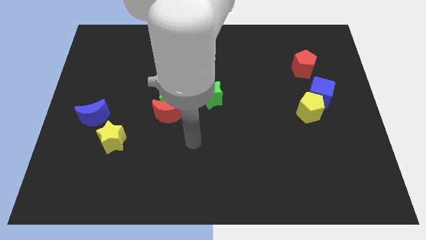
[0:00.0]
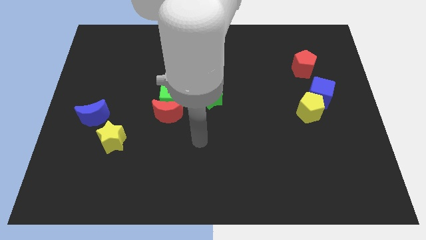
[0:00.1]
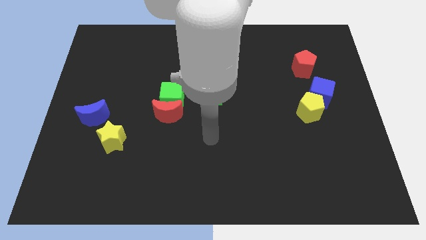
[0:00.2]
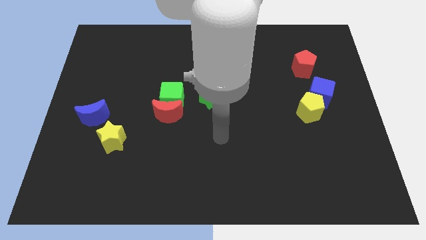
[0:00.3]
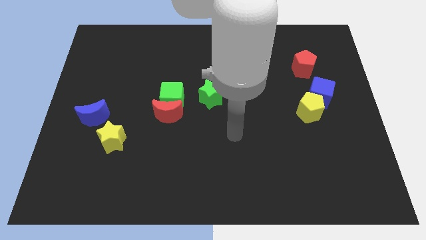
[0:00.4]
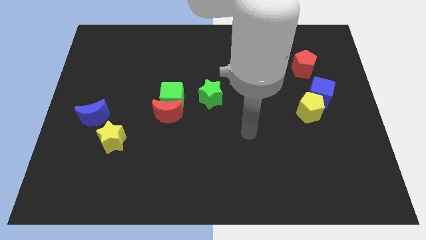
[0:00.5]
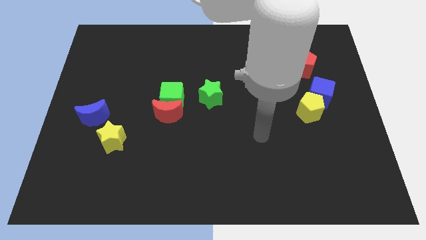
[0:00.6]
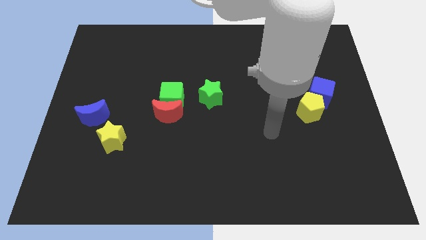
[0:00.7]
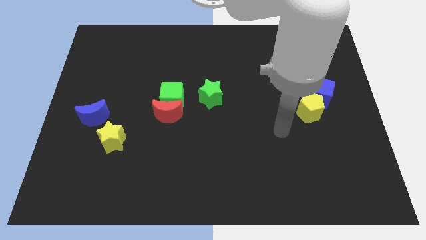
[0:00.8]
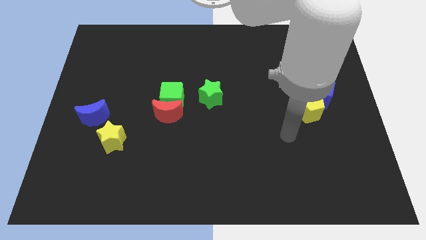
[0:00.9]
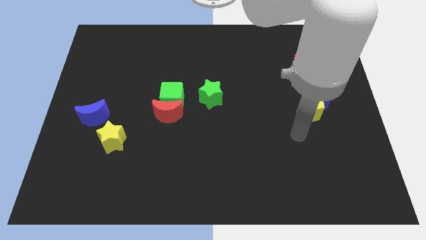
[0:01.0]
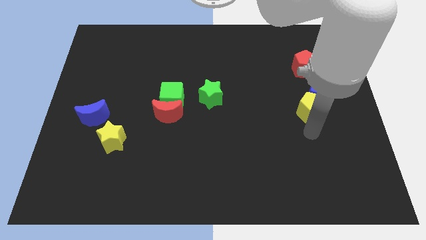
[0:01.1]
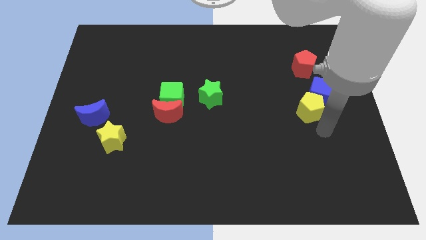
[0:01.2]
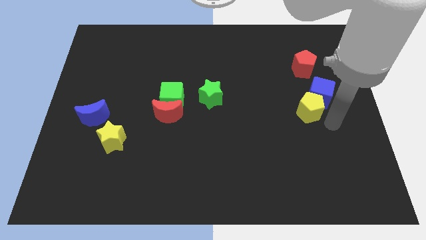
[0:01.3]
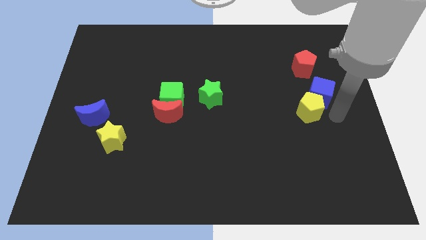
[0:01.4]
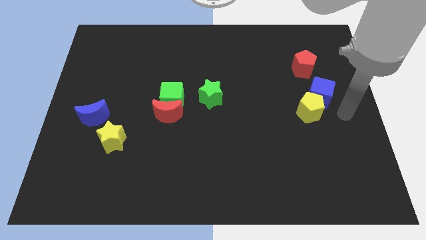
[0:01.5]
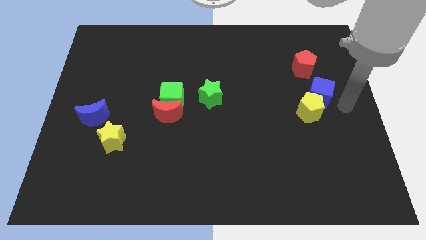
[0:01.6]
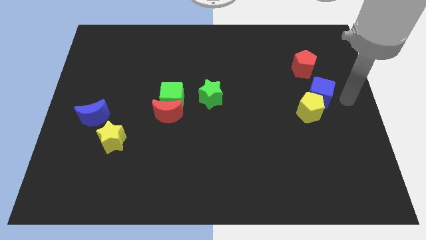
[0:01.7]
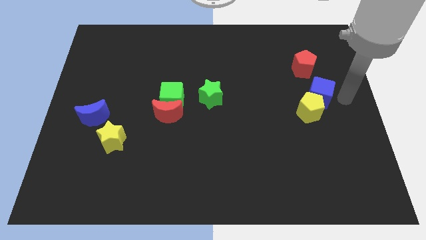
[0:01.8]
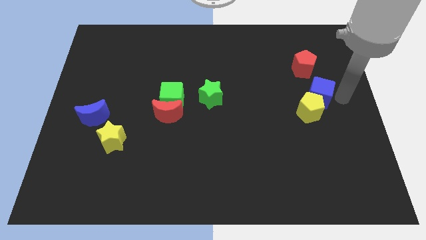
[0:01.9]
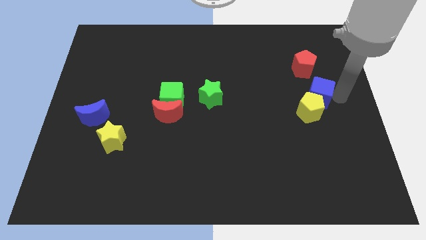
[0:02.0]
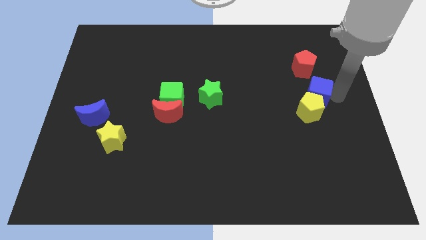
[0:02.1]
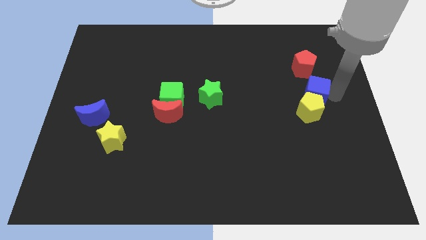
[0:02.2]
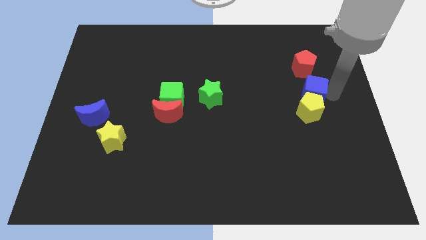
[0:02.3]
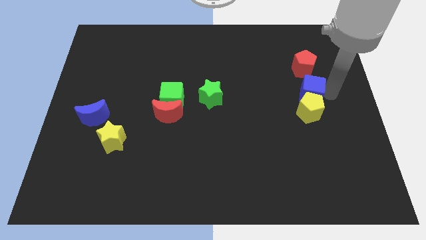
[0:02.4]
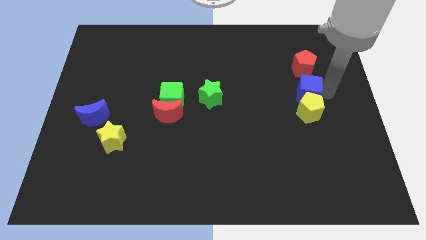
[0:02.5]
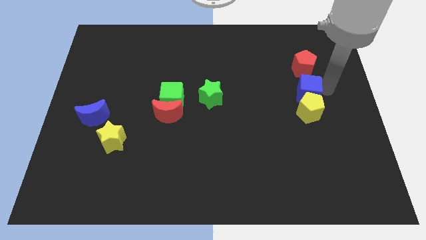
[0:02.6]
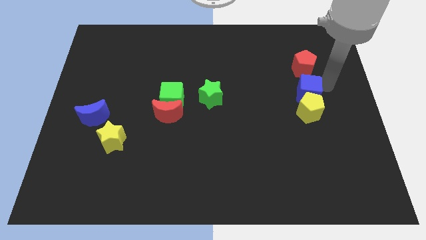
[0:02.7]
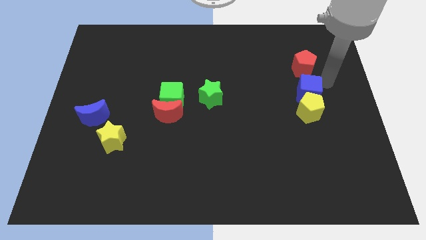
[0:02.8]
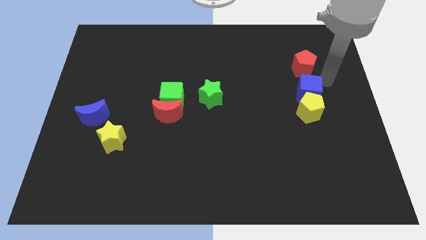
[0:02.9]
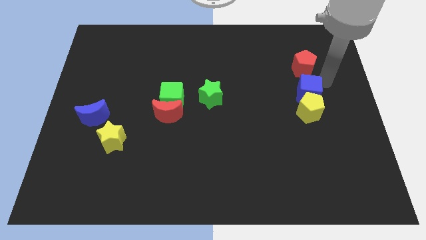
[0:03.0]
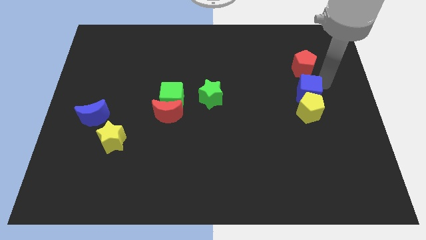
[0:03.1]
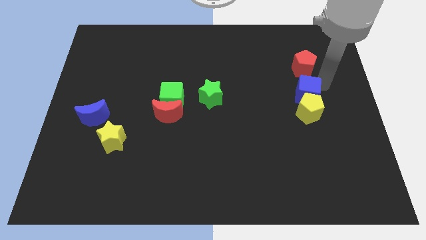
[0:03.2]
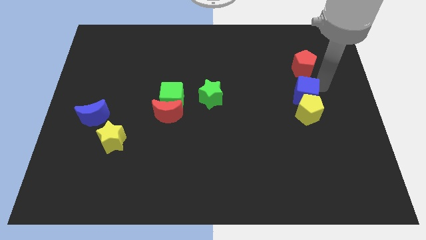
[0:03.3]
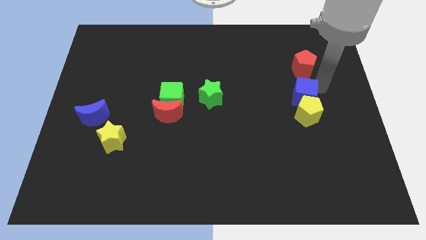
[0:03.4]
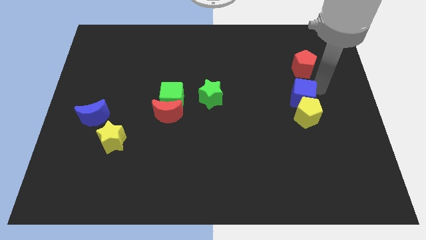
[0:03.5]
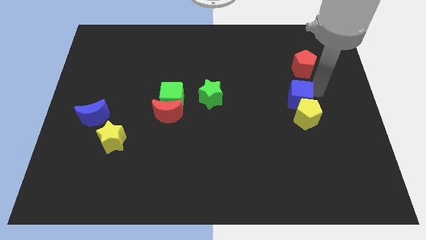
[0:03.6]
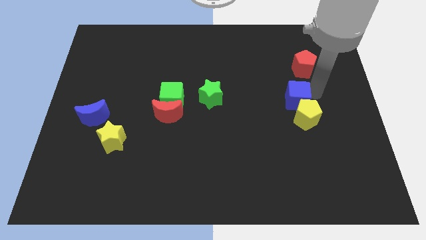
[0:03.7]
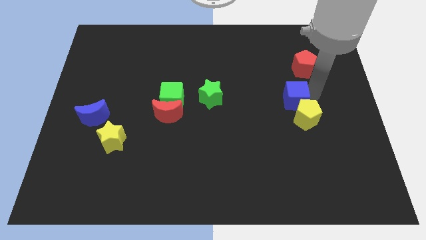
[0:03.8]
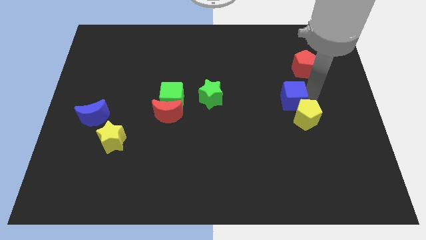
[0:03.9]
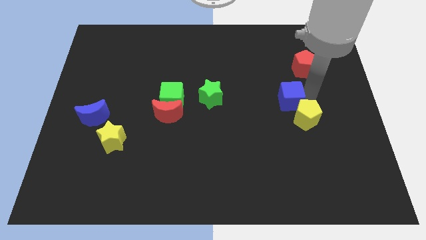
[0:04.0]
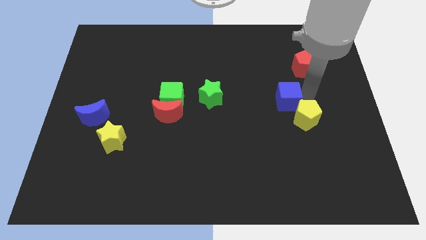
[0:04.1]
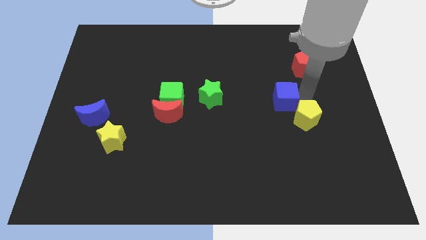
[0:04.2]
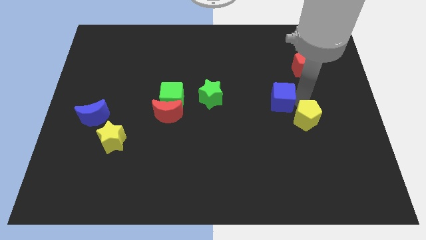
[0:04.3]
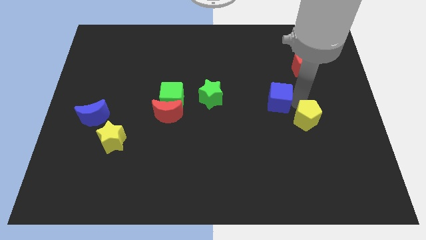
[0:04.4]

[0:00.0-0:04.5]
push the blue cube down and to the left diagonally a little

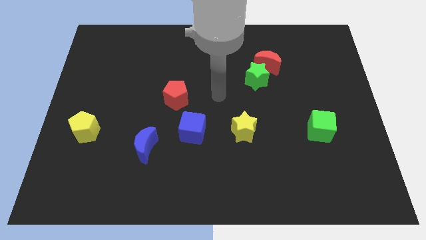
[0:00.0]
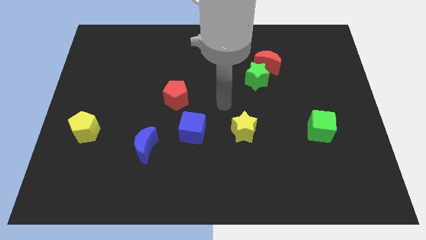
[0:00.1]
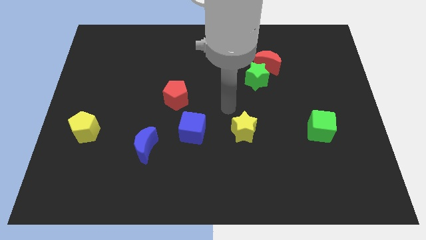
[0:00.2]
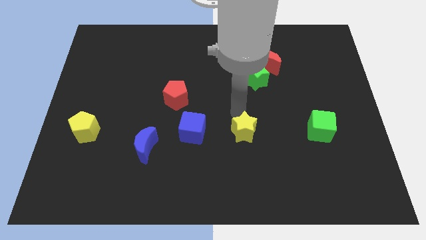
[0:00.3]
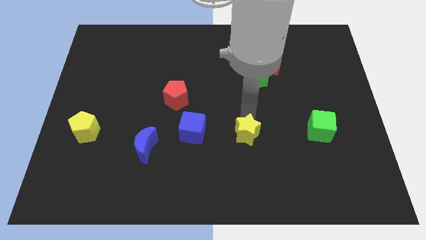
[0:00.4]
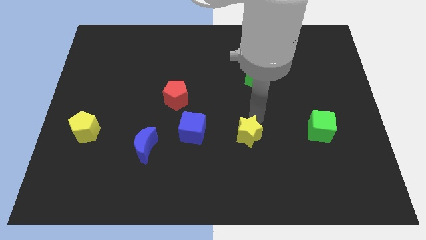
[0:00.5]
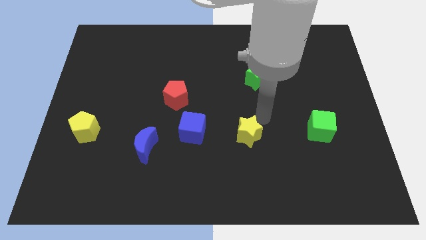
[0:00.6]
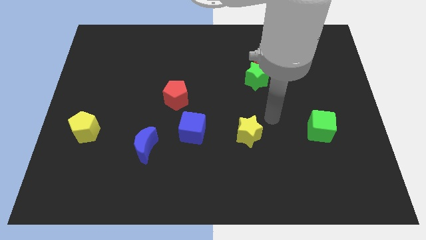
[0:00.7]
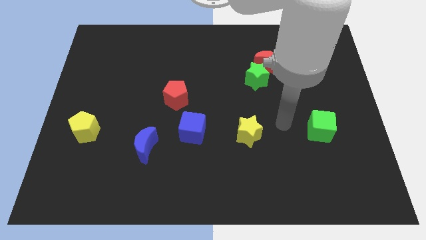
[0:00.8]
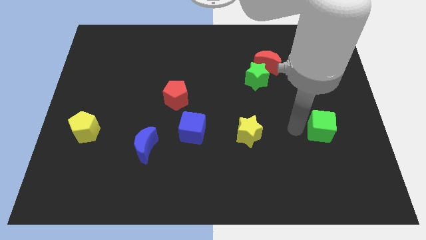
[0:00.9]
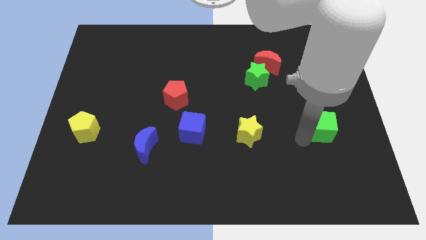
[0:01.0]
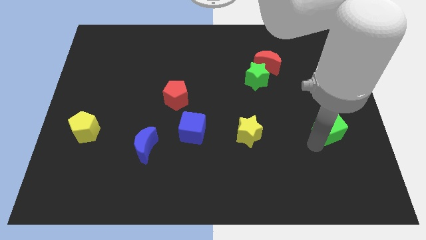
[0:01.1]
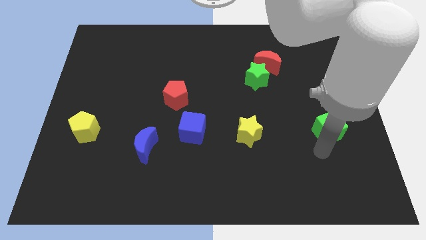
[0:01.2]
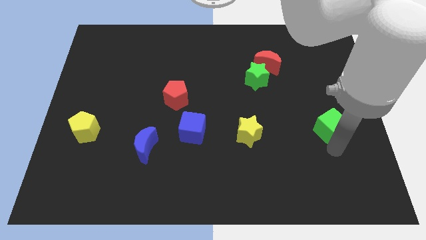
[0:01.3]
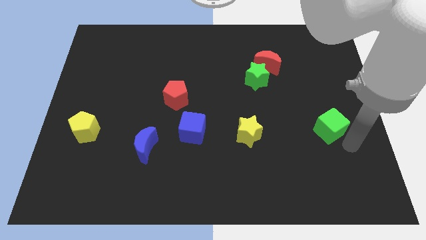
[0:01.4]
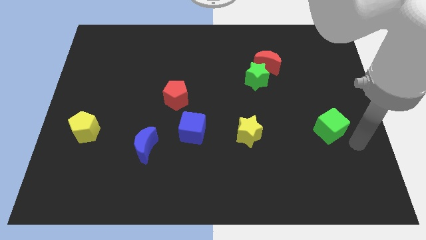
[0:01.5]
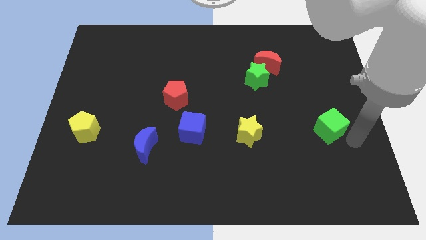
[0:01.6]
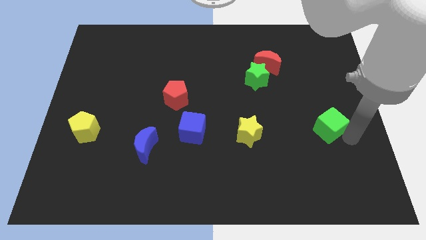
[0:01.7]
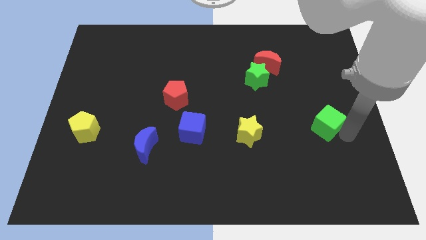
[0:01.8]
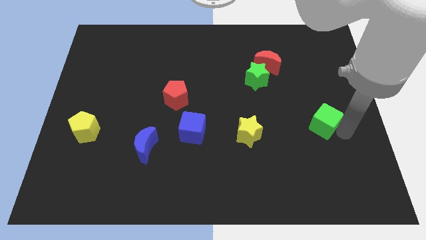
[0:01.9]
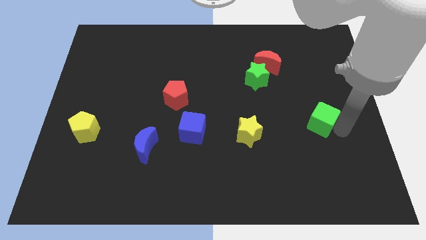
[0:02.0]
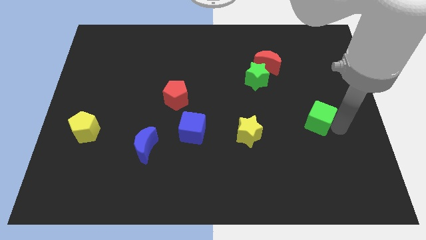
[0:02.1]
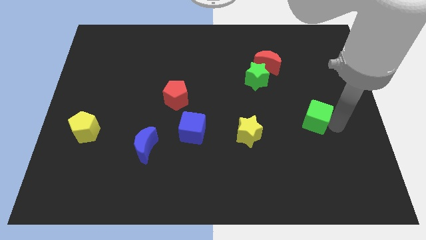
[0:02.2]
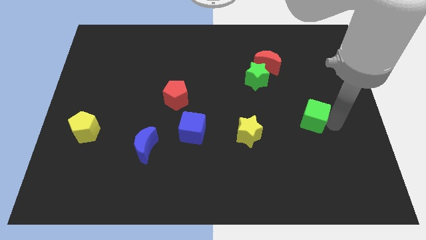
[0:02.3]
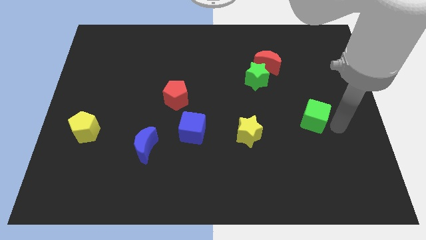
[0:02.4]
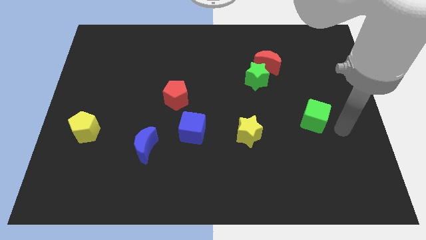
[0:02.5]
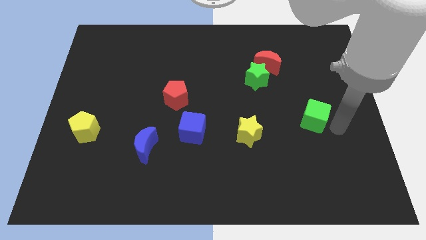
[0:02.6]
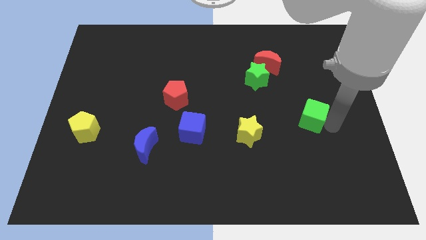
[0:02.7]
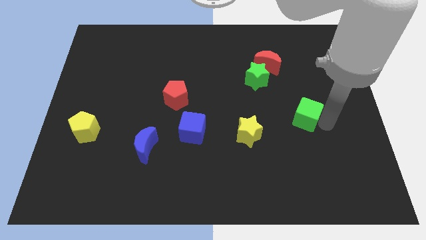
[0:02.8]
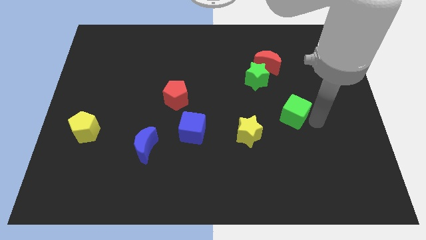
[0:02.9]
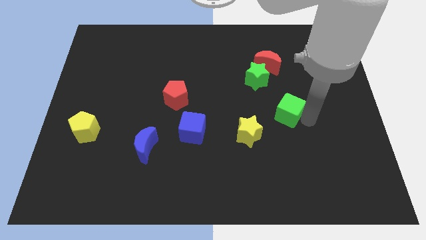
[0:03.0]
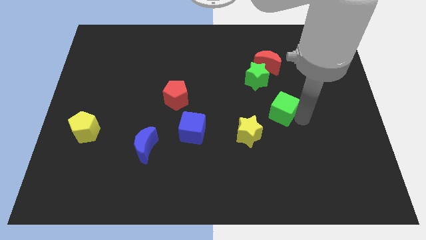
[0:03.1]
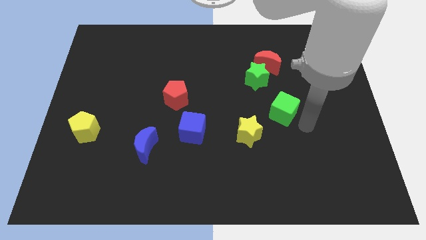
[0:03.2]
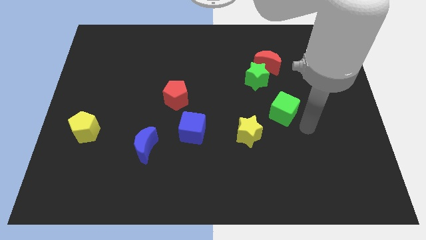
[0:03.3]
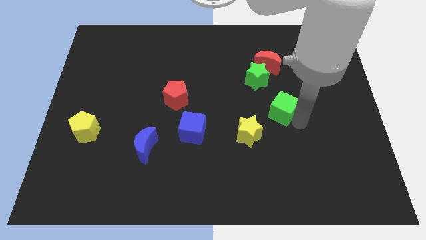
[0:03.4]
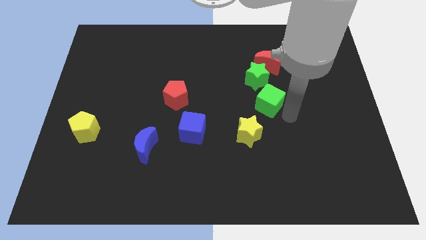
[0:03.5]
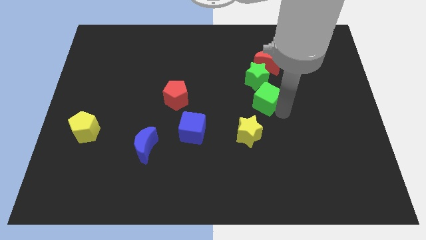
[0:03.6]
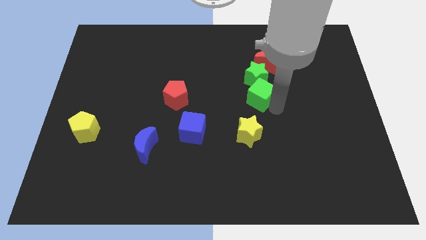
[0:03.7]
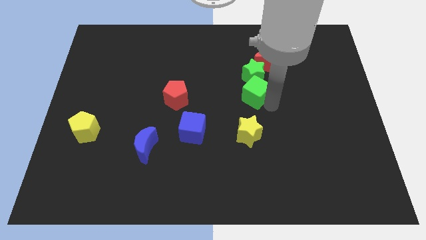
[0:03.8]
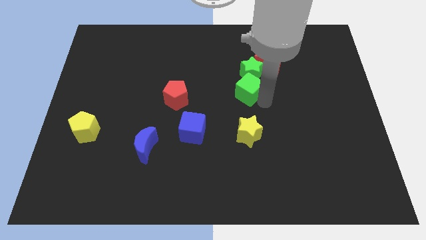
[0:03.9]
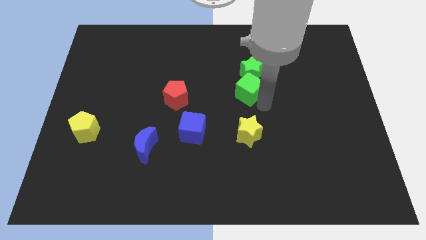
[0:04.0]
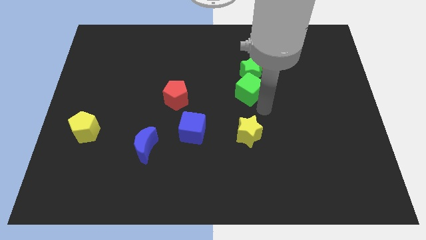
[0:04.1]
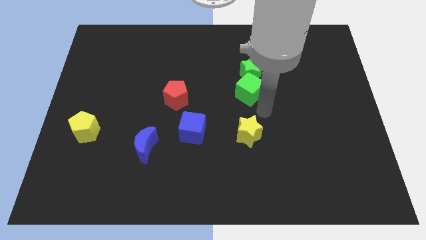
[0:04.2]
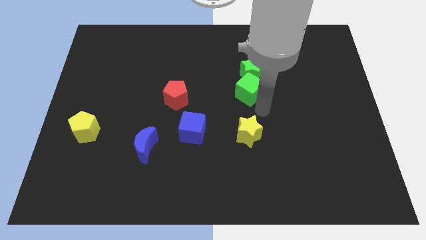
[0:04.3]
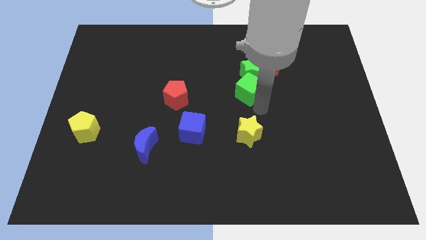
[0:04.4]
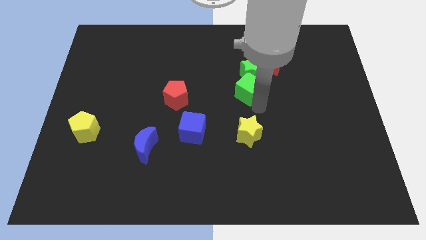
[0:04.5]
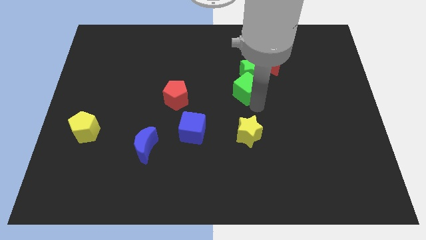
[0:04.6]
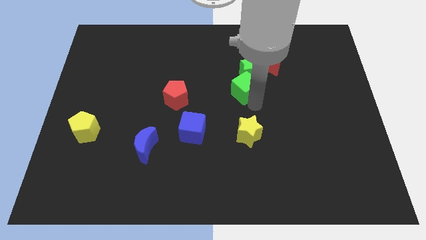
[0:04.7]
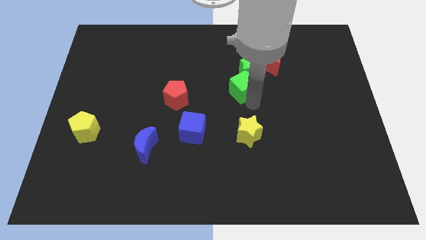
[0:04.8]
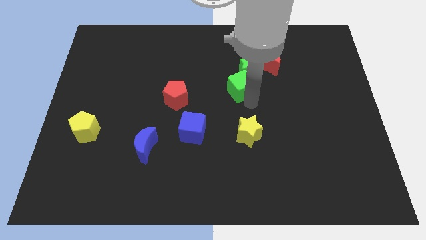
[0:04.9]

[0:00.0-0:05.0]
push the green cube upwards and to the left
